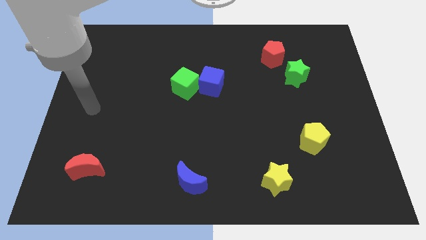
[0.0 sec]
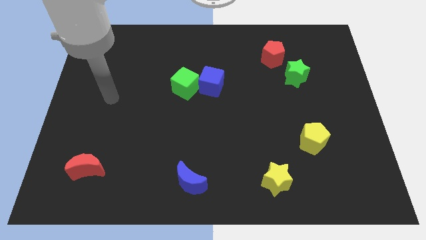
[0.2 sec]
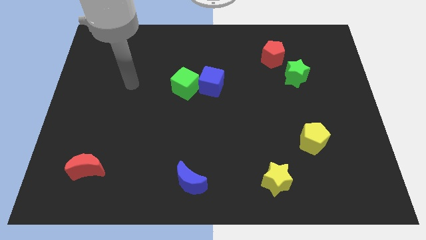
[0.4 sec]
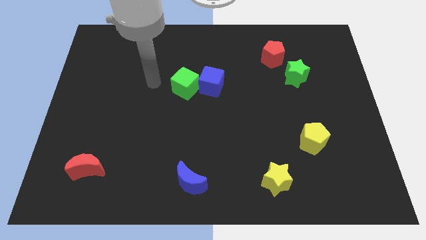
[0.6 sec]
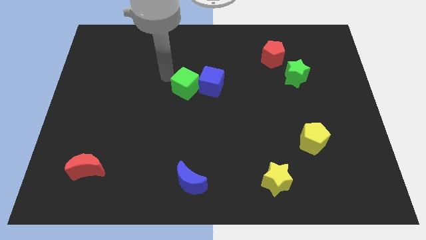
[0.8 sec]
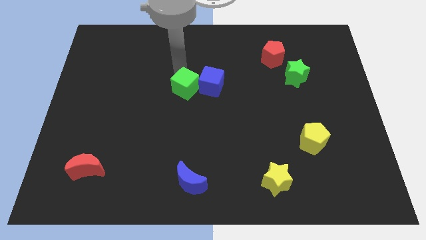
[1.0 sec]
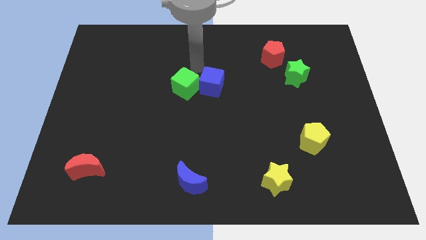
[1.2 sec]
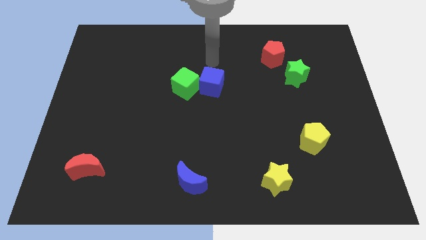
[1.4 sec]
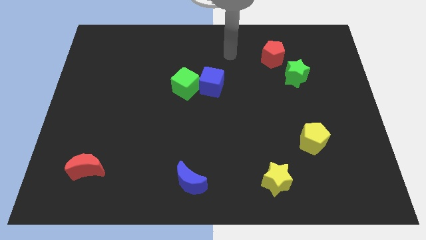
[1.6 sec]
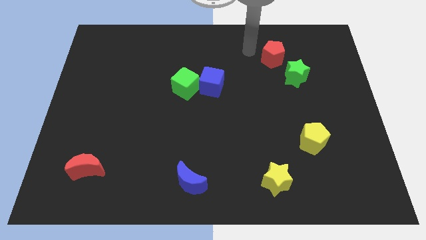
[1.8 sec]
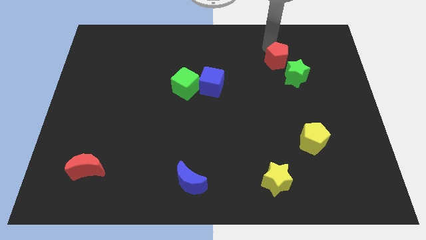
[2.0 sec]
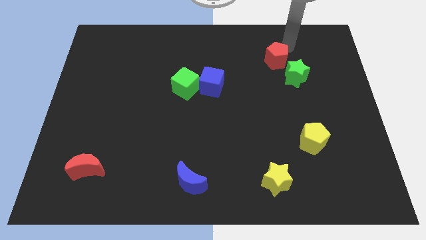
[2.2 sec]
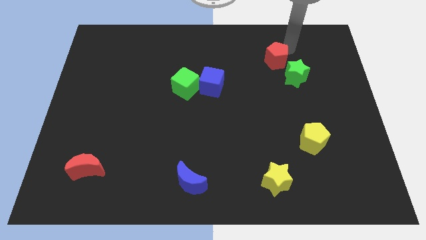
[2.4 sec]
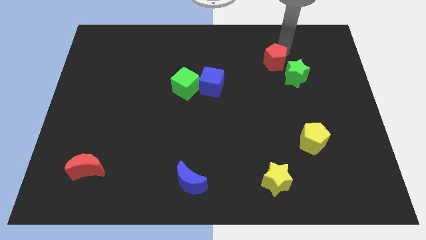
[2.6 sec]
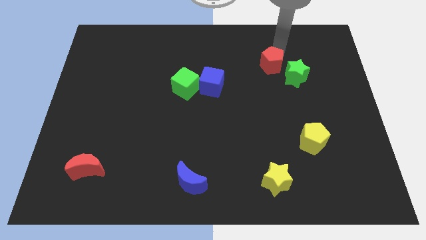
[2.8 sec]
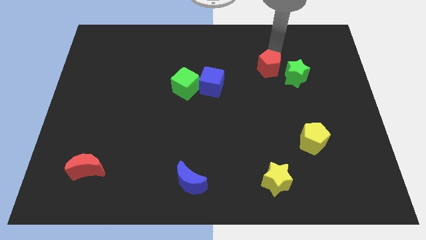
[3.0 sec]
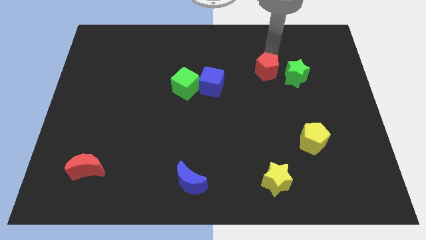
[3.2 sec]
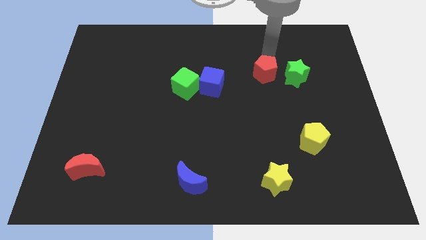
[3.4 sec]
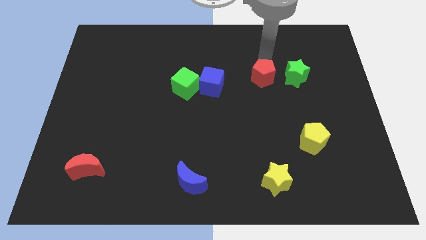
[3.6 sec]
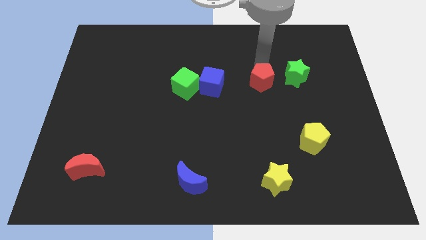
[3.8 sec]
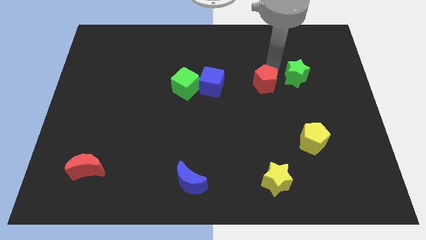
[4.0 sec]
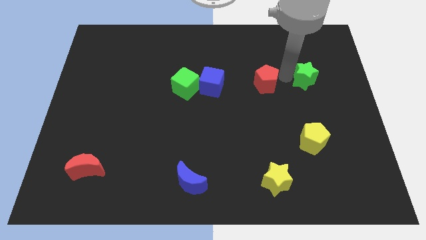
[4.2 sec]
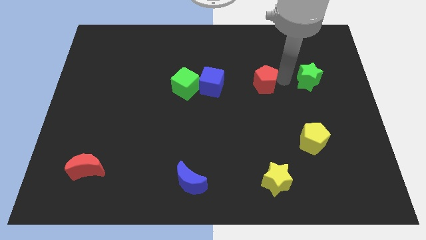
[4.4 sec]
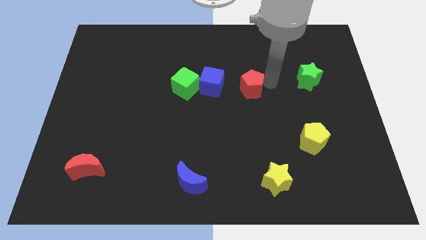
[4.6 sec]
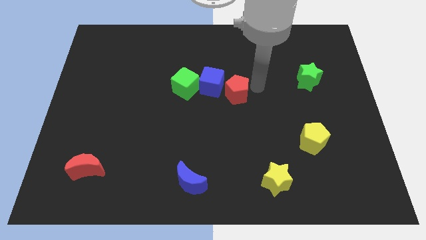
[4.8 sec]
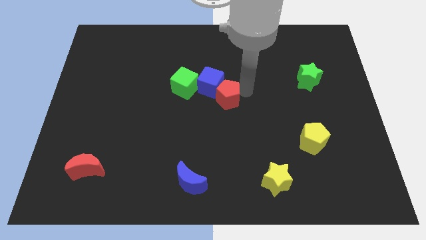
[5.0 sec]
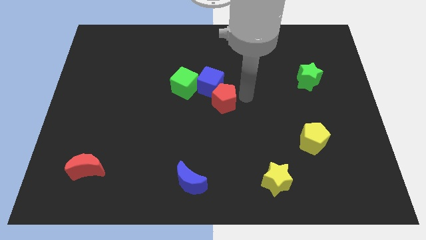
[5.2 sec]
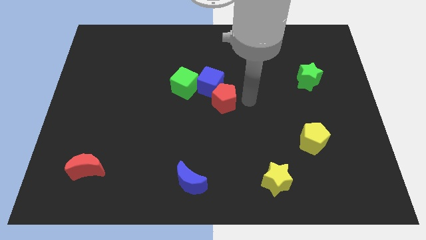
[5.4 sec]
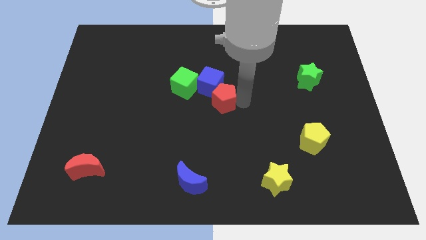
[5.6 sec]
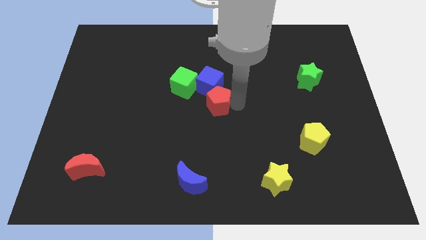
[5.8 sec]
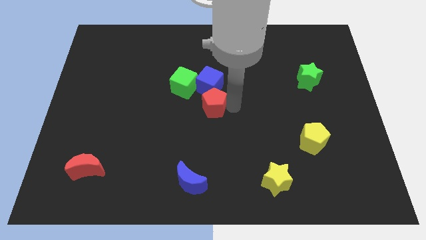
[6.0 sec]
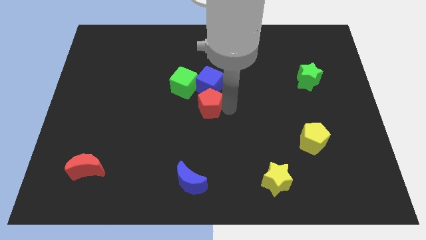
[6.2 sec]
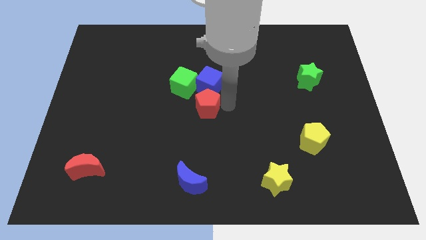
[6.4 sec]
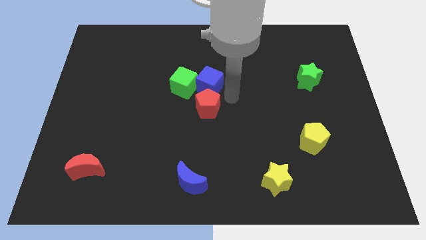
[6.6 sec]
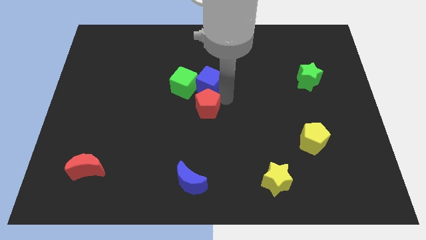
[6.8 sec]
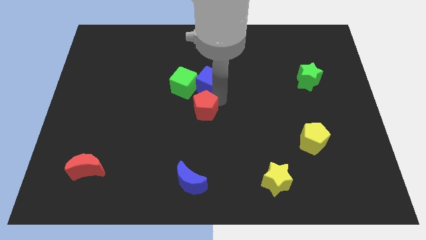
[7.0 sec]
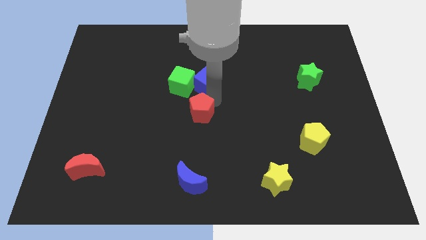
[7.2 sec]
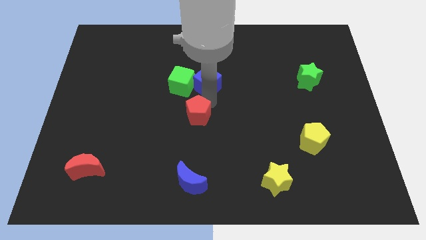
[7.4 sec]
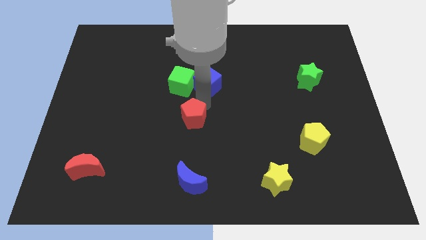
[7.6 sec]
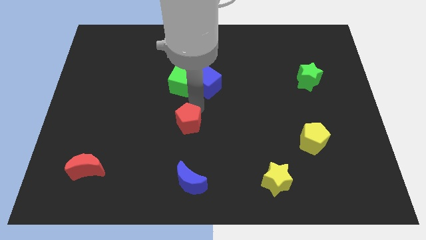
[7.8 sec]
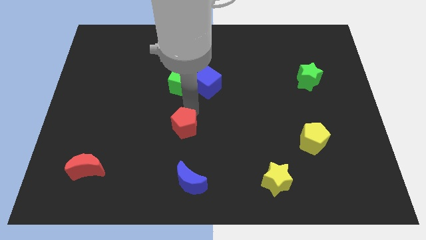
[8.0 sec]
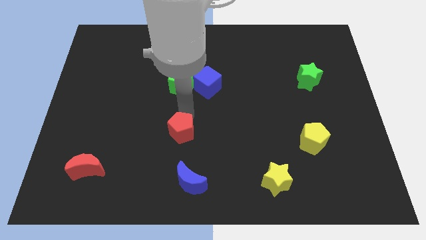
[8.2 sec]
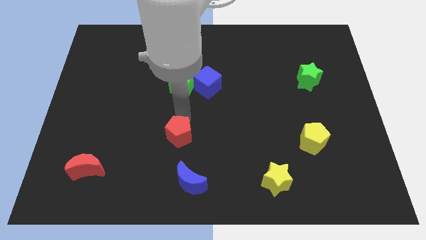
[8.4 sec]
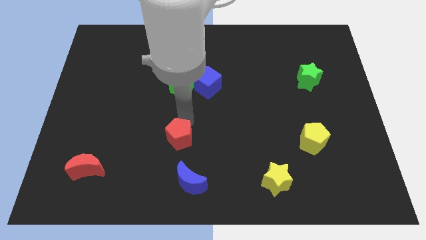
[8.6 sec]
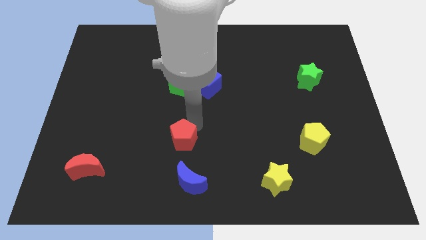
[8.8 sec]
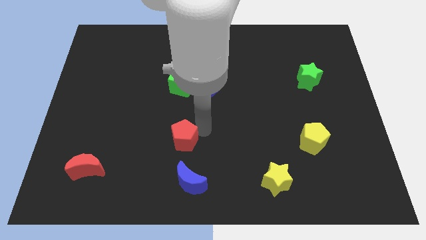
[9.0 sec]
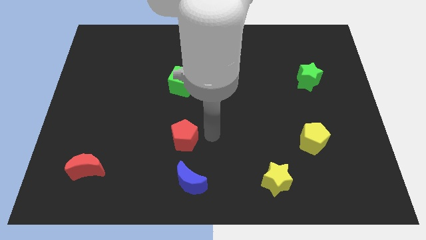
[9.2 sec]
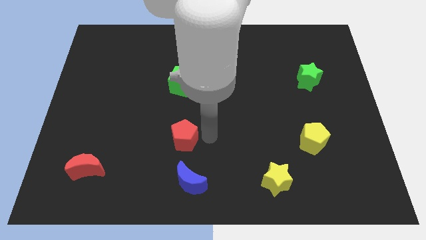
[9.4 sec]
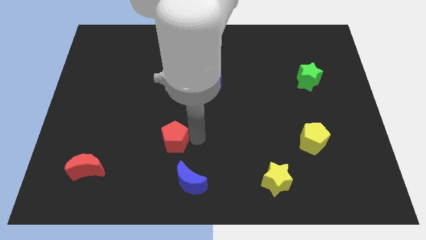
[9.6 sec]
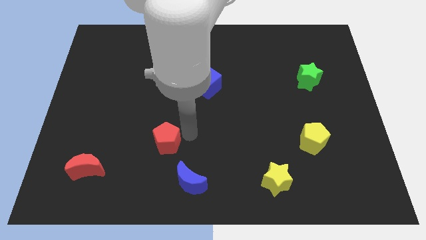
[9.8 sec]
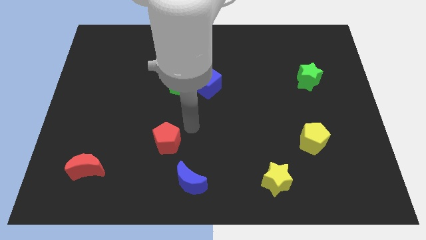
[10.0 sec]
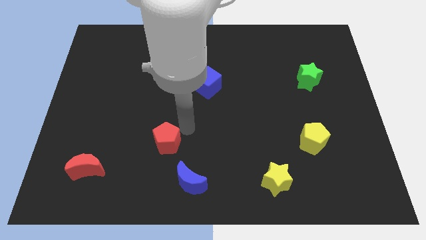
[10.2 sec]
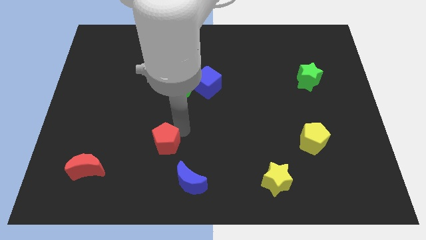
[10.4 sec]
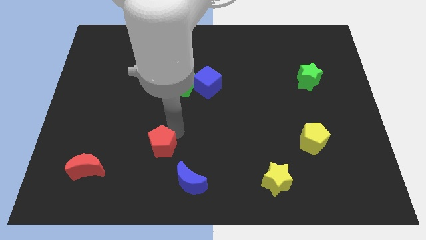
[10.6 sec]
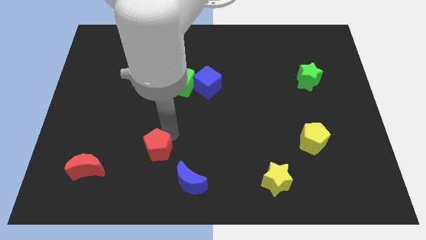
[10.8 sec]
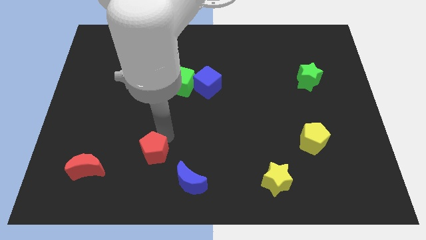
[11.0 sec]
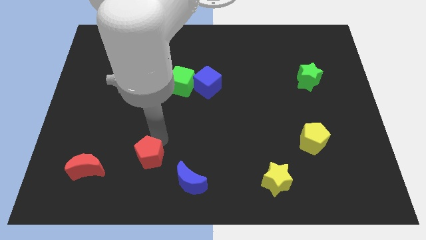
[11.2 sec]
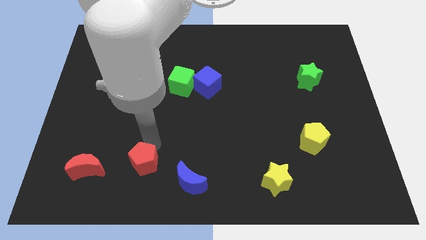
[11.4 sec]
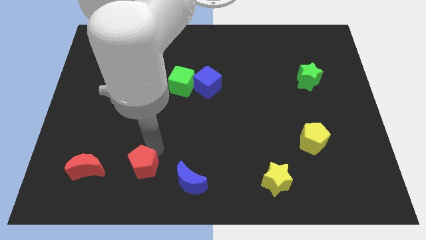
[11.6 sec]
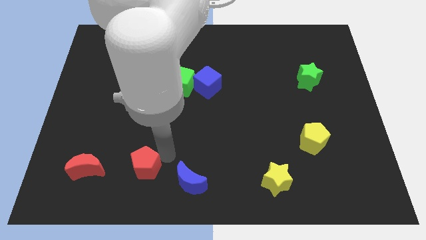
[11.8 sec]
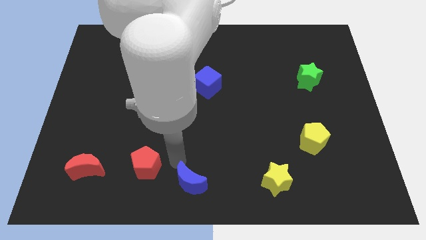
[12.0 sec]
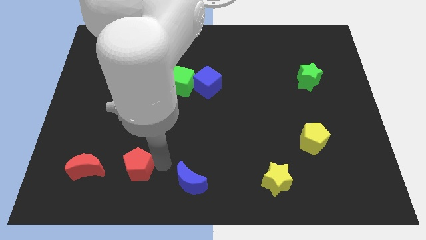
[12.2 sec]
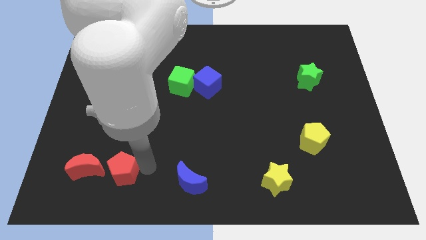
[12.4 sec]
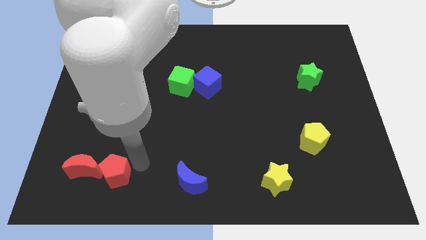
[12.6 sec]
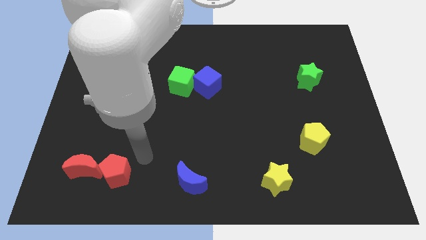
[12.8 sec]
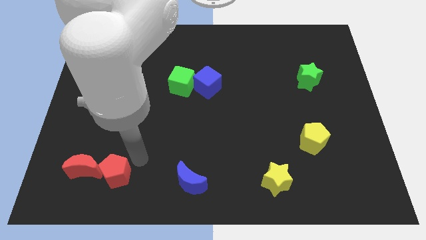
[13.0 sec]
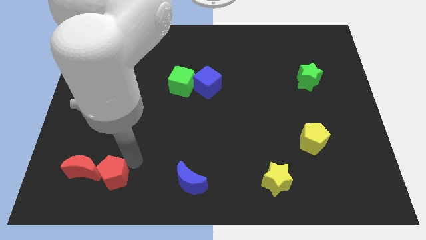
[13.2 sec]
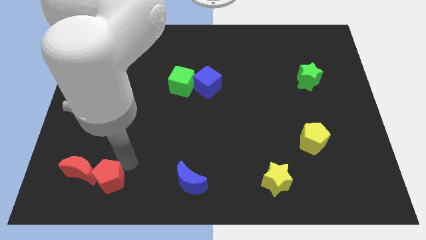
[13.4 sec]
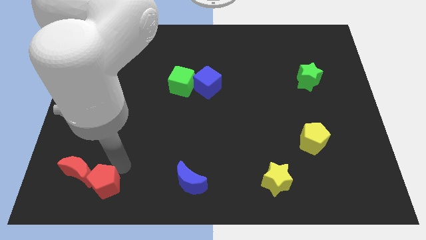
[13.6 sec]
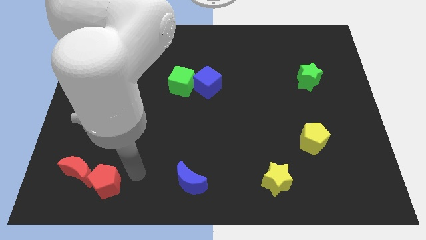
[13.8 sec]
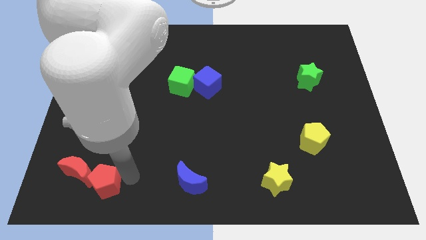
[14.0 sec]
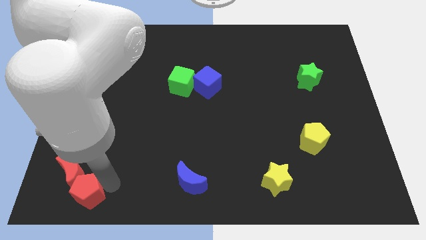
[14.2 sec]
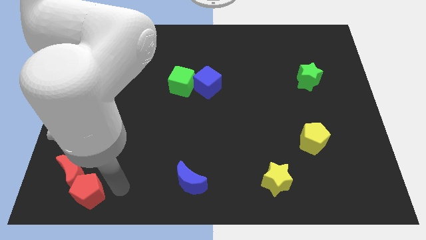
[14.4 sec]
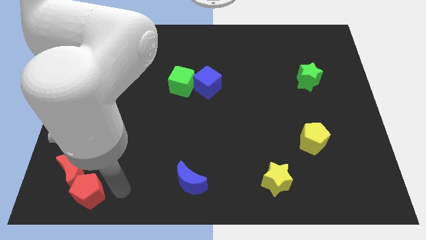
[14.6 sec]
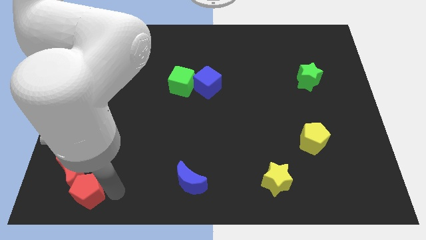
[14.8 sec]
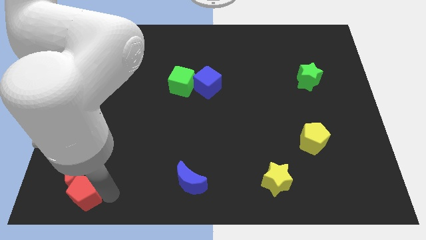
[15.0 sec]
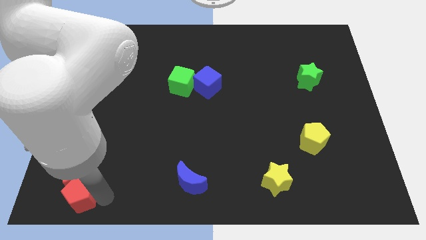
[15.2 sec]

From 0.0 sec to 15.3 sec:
push the red pentagon to the bottom left of the board
